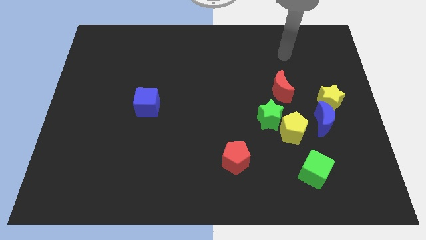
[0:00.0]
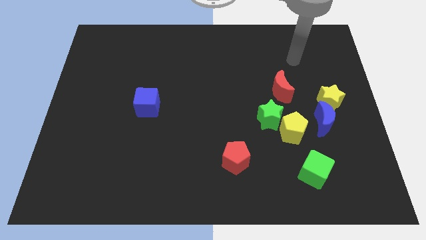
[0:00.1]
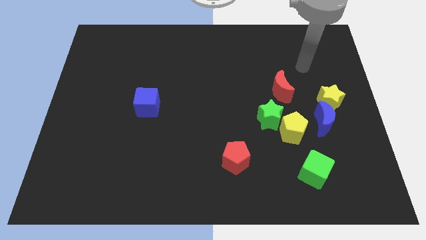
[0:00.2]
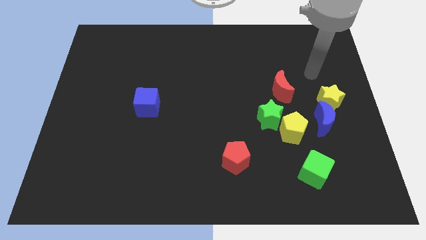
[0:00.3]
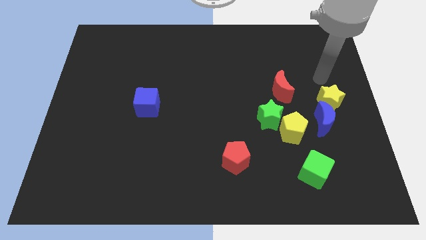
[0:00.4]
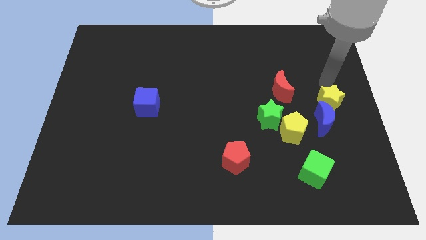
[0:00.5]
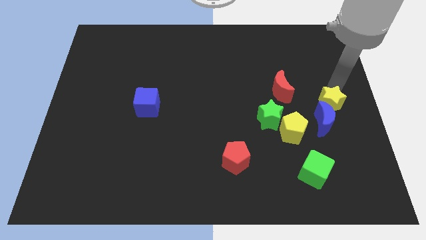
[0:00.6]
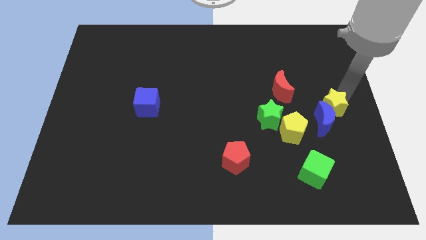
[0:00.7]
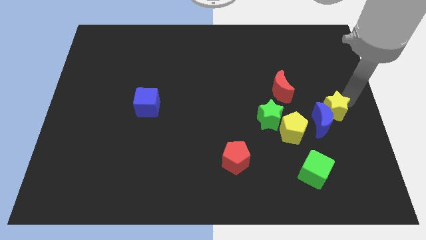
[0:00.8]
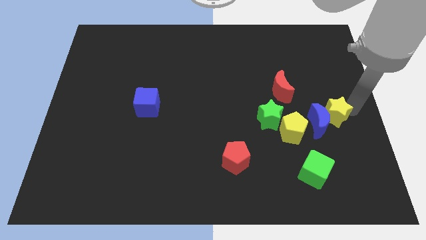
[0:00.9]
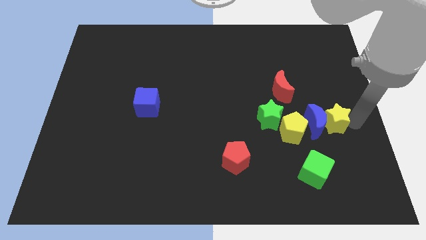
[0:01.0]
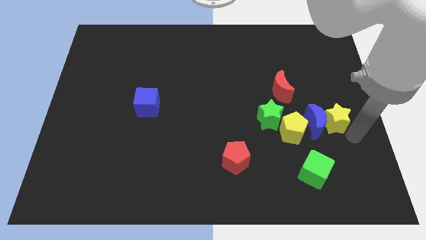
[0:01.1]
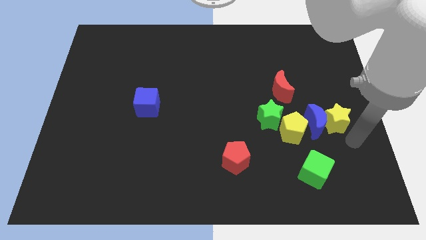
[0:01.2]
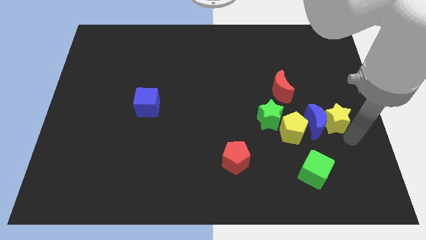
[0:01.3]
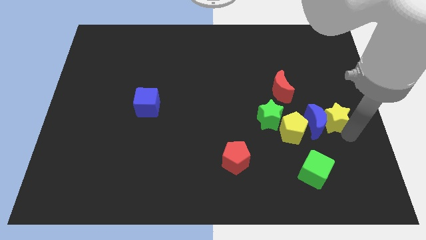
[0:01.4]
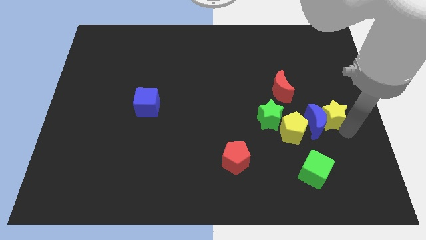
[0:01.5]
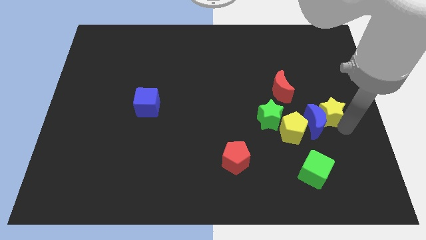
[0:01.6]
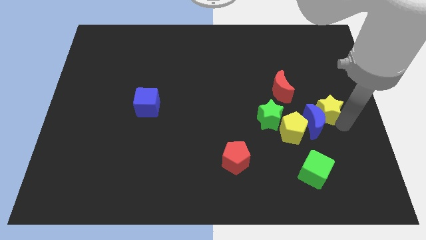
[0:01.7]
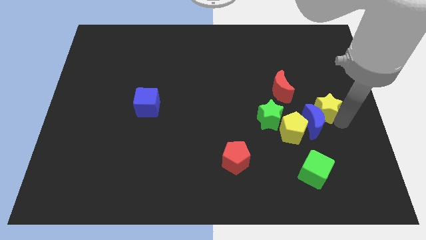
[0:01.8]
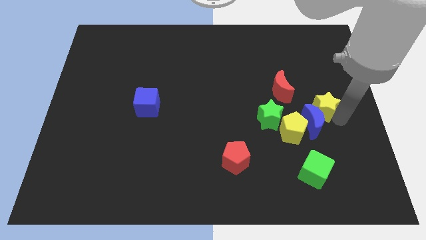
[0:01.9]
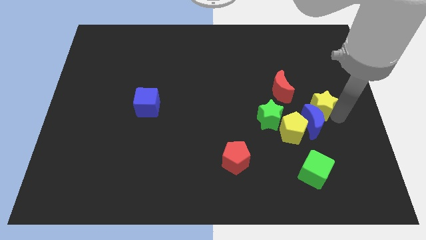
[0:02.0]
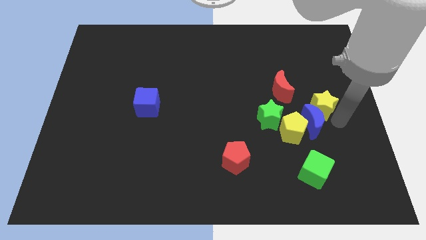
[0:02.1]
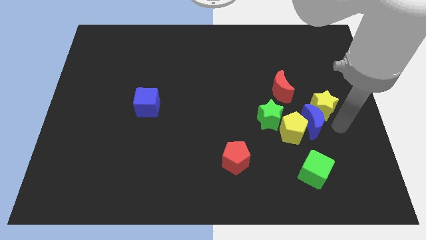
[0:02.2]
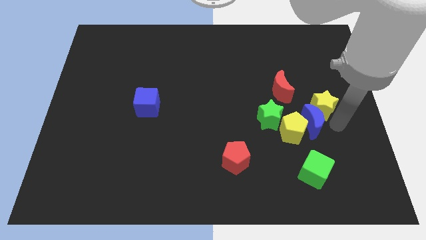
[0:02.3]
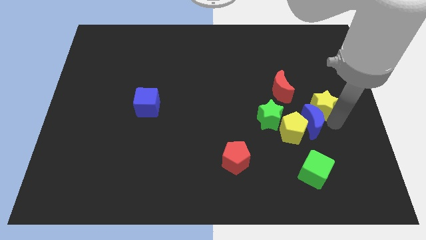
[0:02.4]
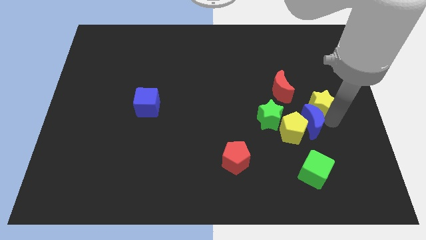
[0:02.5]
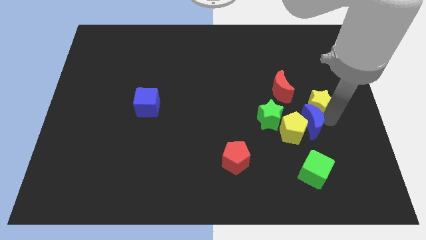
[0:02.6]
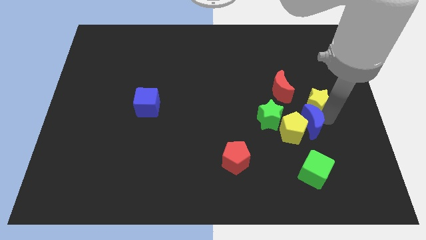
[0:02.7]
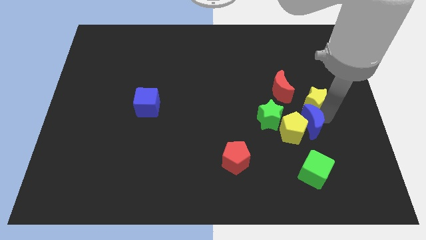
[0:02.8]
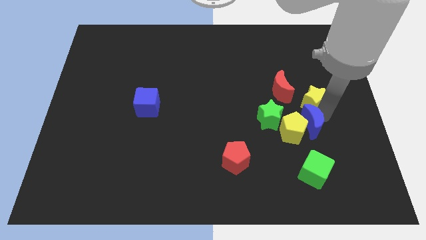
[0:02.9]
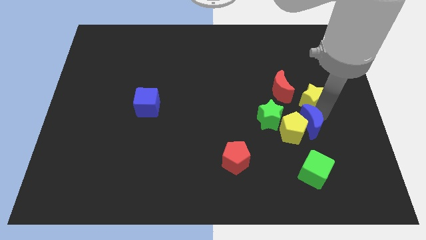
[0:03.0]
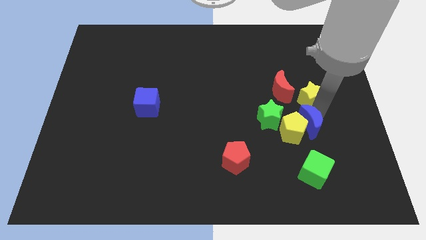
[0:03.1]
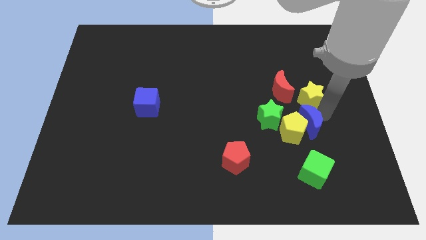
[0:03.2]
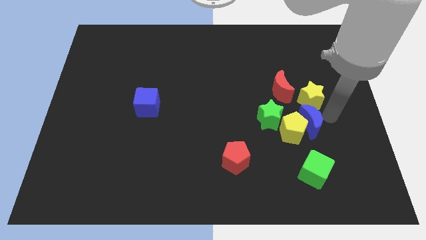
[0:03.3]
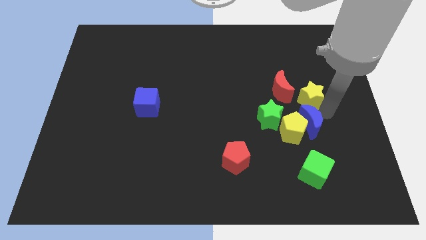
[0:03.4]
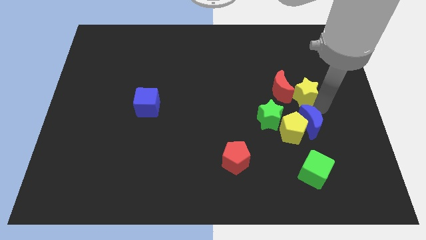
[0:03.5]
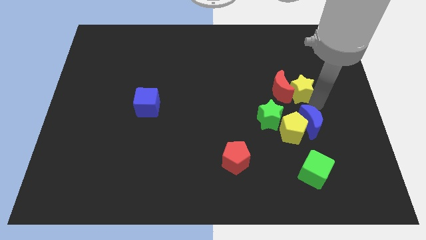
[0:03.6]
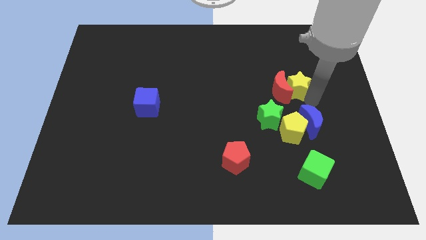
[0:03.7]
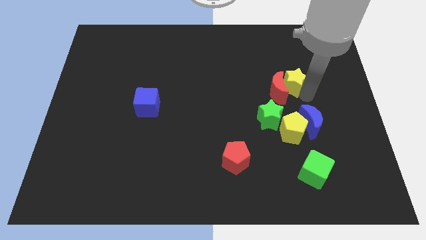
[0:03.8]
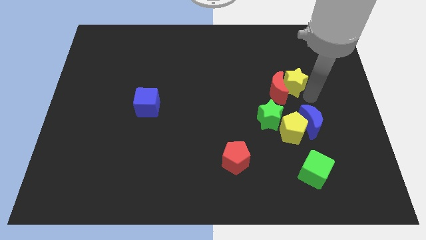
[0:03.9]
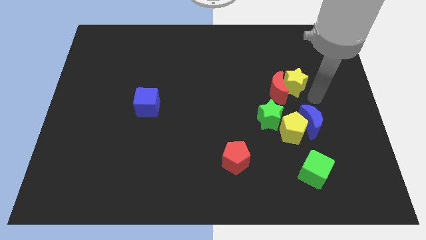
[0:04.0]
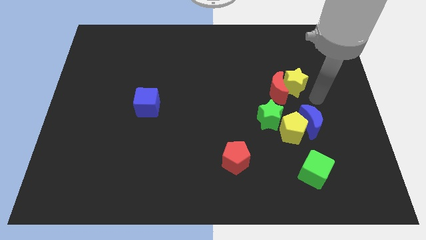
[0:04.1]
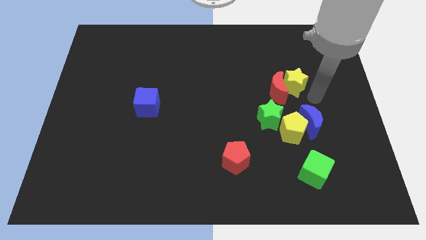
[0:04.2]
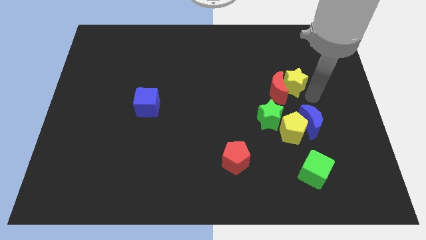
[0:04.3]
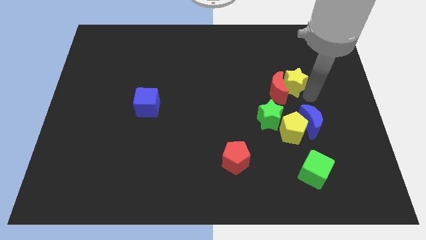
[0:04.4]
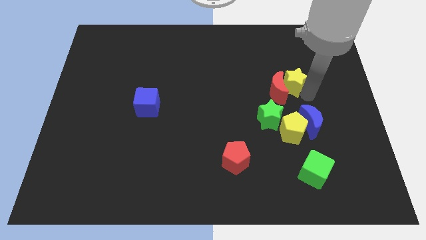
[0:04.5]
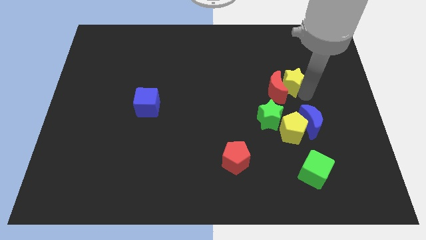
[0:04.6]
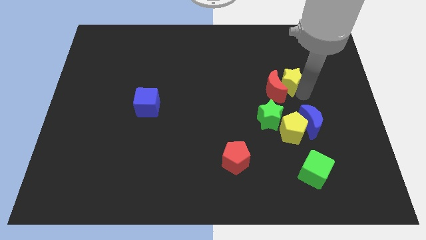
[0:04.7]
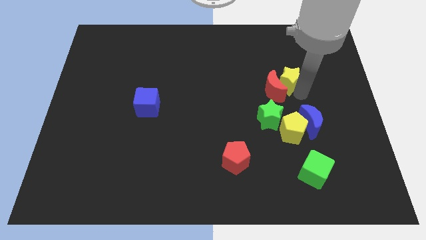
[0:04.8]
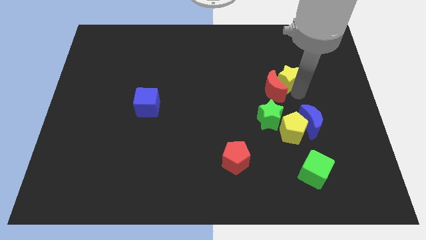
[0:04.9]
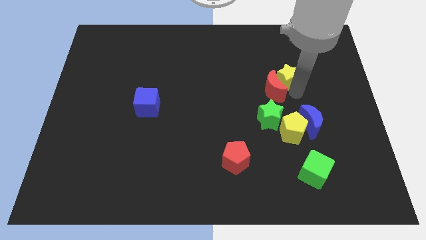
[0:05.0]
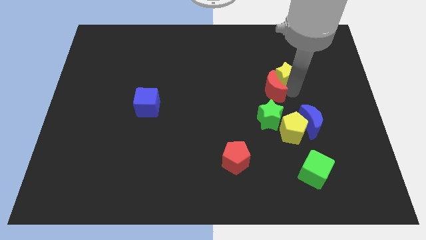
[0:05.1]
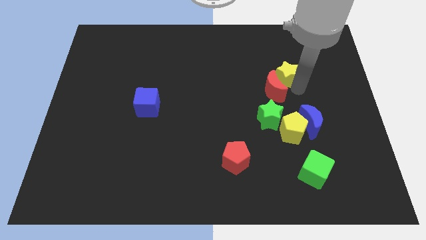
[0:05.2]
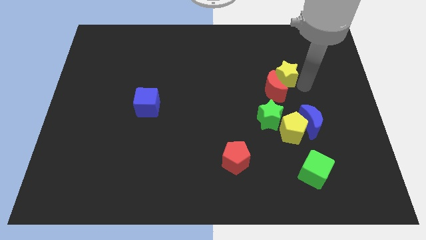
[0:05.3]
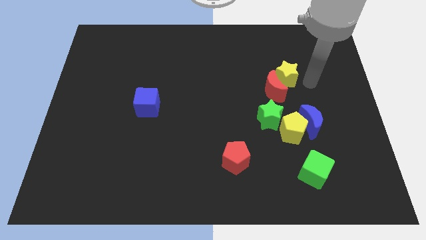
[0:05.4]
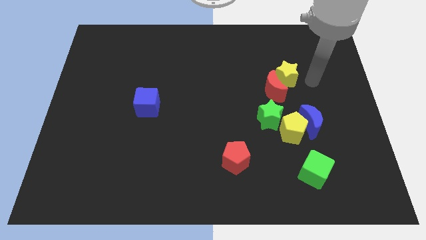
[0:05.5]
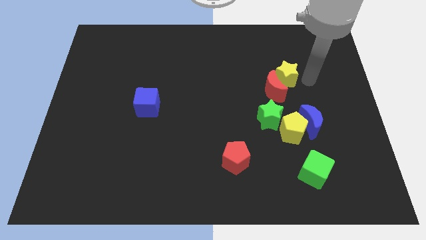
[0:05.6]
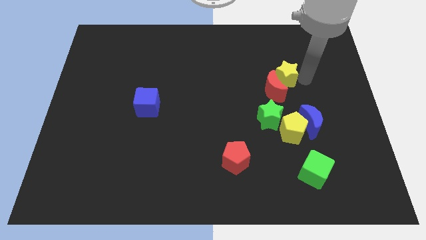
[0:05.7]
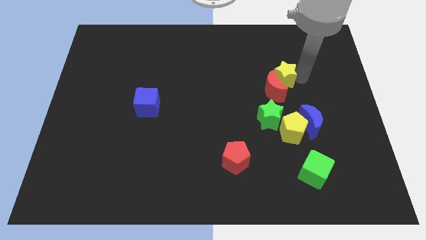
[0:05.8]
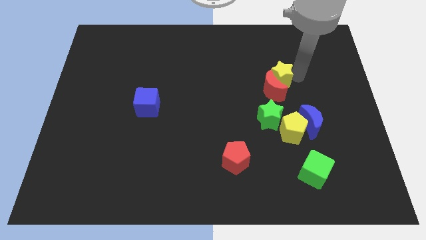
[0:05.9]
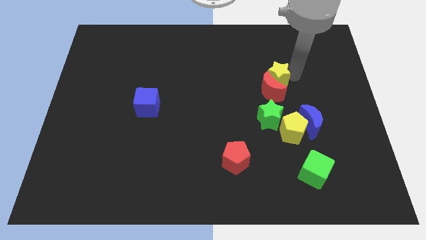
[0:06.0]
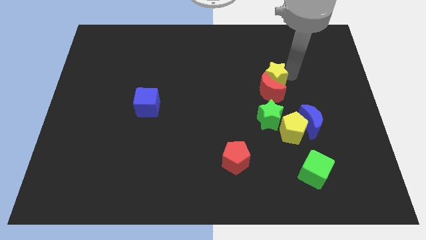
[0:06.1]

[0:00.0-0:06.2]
move the yellow star to the top left of the red moon

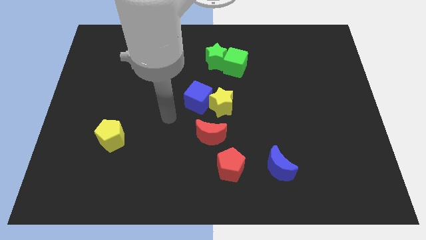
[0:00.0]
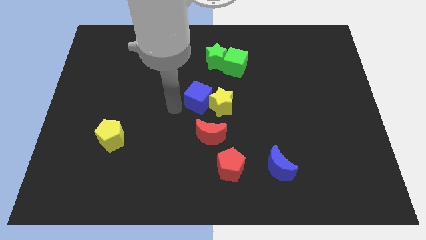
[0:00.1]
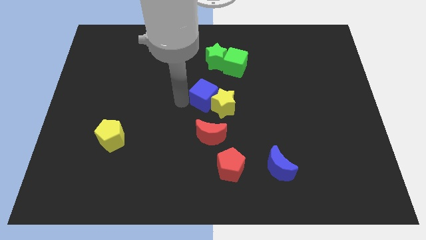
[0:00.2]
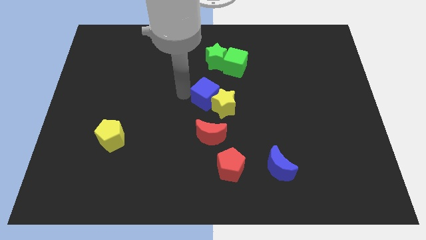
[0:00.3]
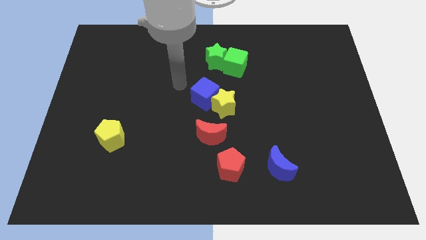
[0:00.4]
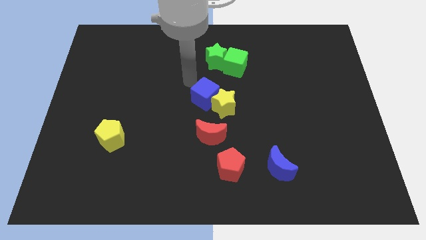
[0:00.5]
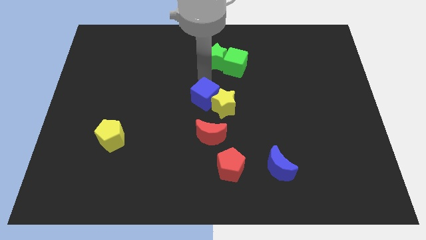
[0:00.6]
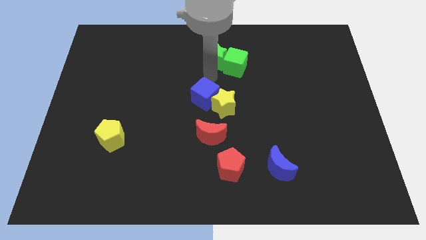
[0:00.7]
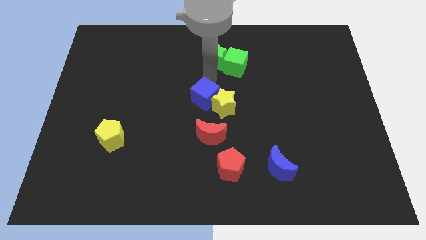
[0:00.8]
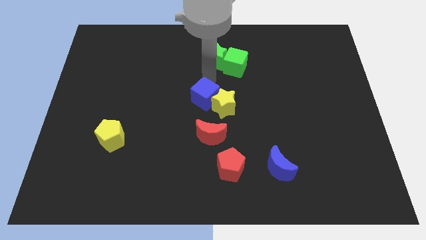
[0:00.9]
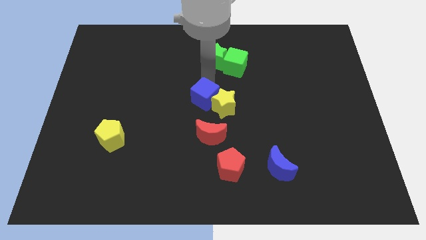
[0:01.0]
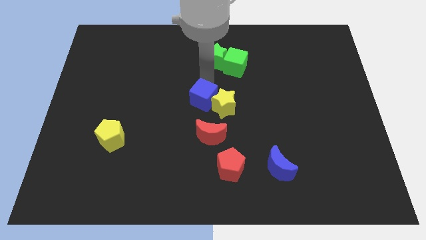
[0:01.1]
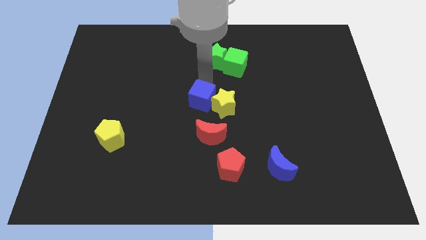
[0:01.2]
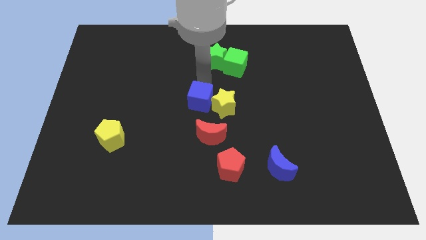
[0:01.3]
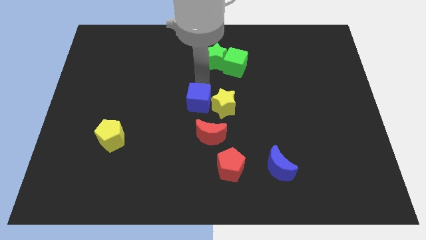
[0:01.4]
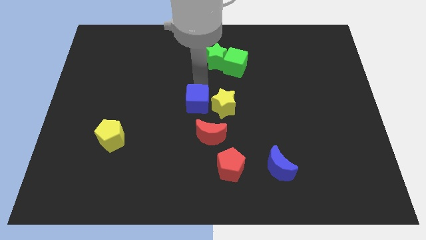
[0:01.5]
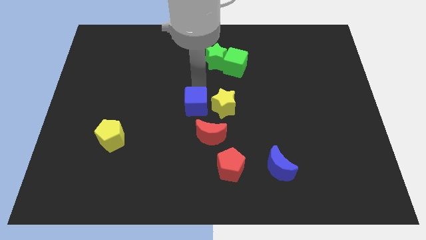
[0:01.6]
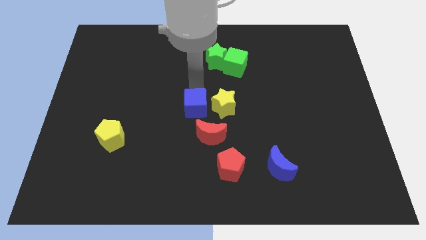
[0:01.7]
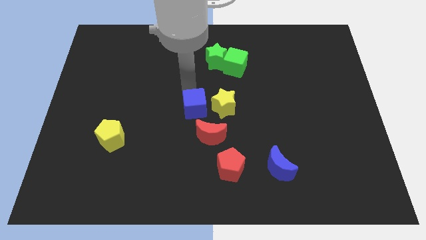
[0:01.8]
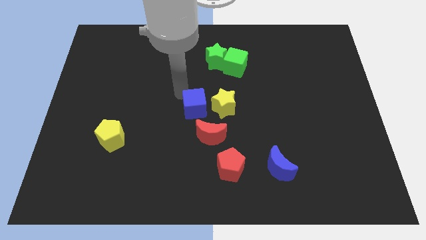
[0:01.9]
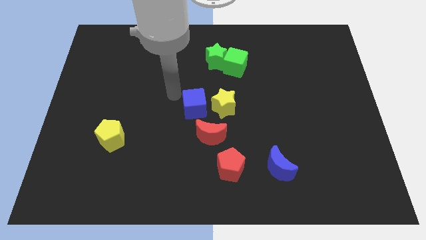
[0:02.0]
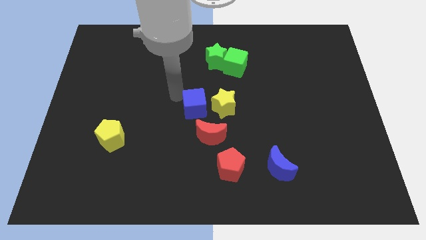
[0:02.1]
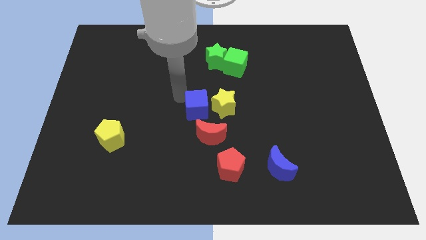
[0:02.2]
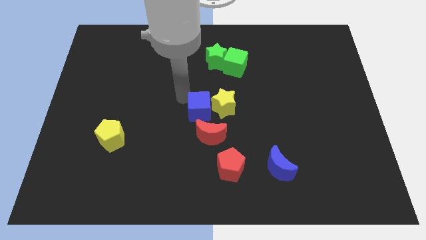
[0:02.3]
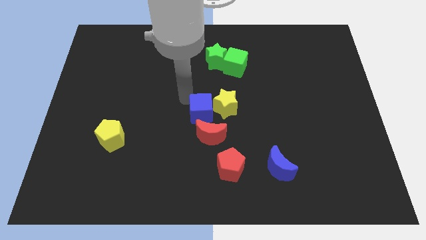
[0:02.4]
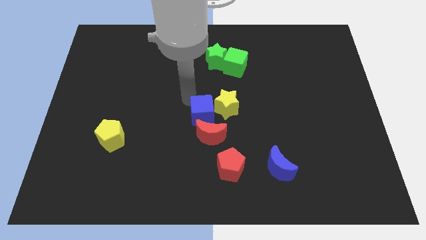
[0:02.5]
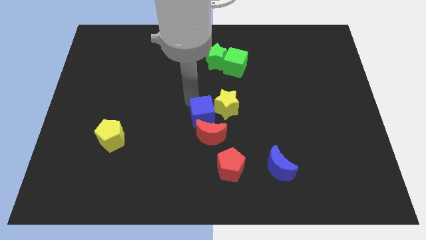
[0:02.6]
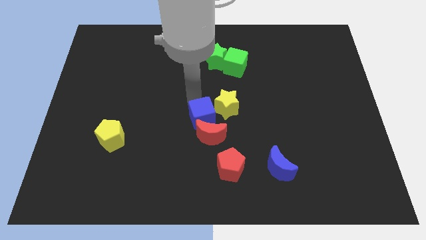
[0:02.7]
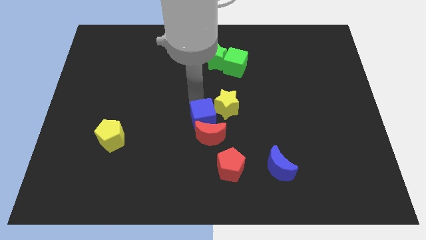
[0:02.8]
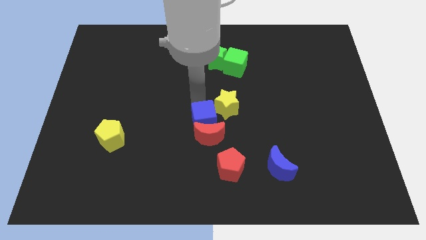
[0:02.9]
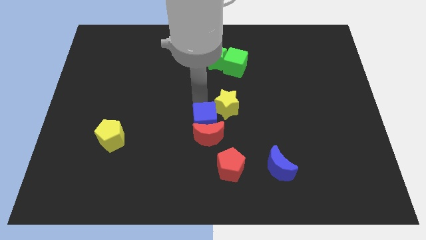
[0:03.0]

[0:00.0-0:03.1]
slide the blue cube to the bottom of the yellow star
